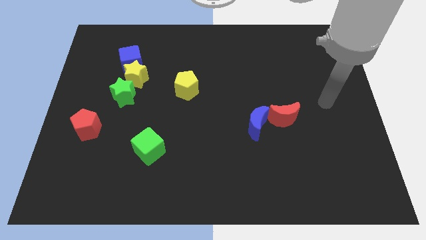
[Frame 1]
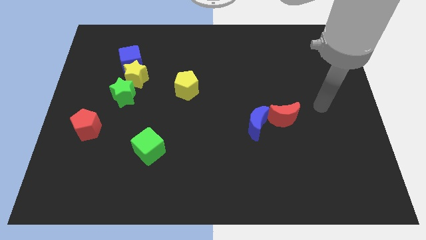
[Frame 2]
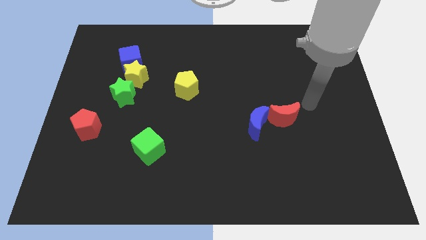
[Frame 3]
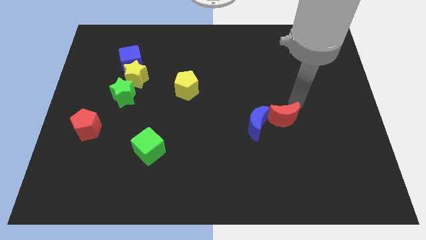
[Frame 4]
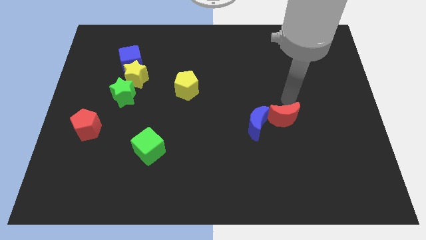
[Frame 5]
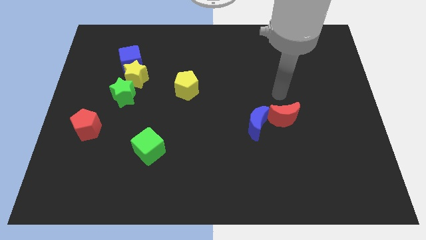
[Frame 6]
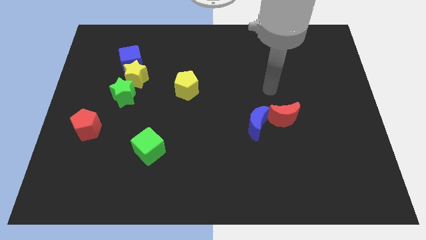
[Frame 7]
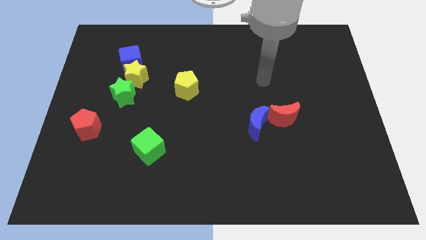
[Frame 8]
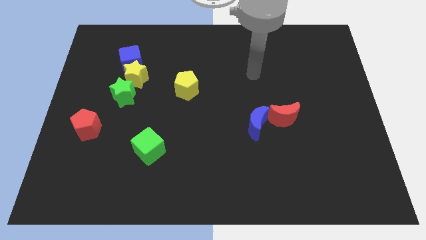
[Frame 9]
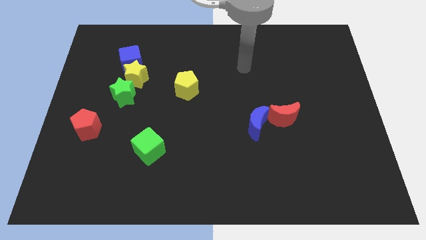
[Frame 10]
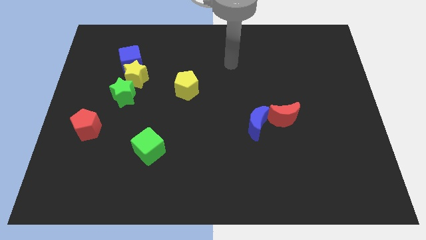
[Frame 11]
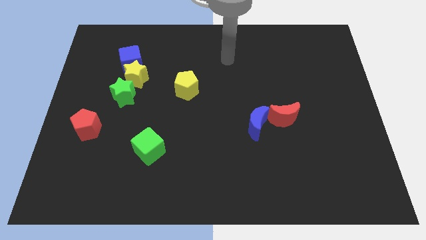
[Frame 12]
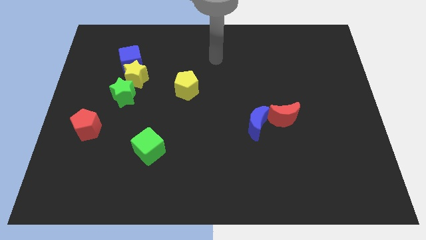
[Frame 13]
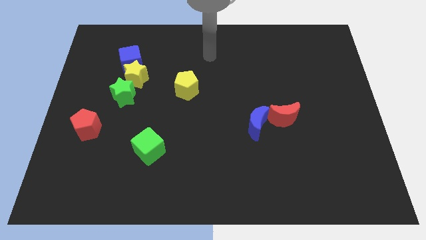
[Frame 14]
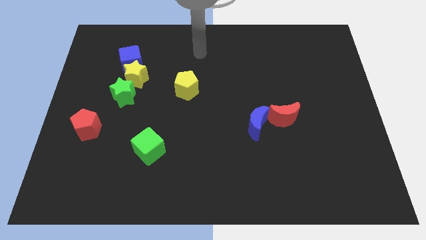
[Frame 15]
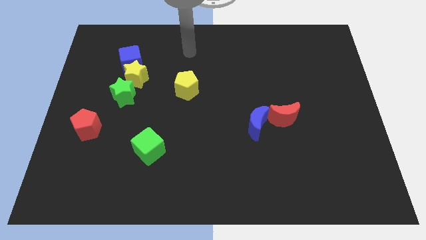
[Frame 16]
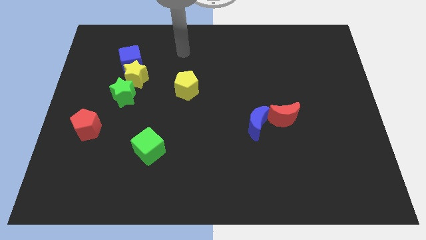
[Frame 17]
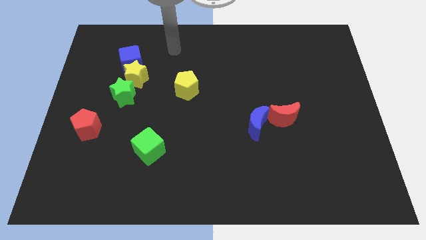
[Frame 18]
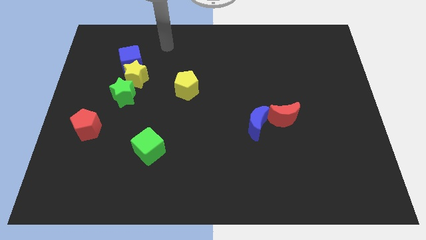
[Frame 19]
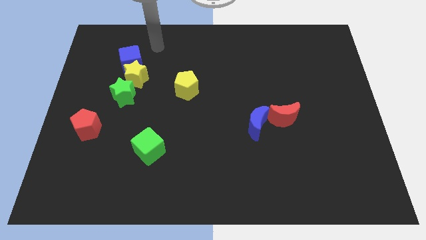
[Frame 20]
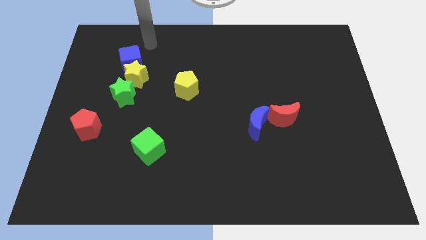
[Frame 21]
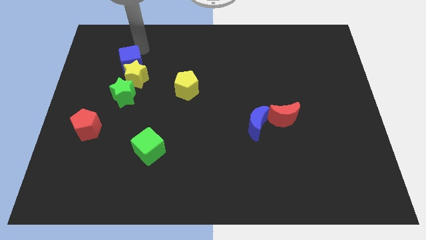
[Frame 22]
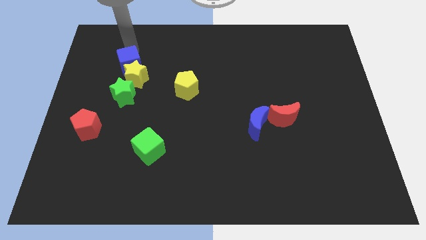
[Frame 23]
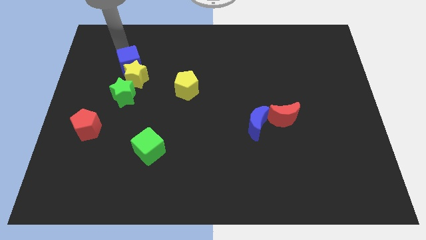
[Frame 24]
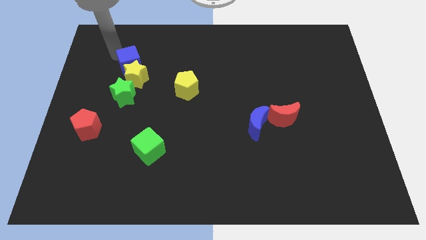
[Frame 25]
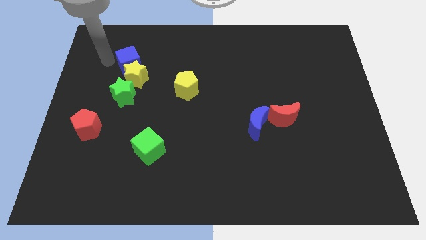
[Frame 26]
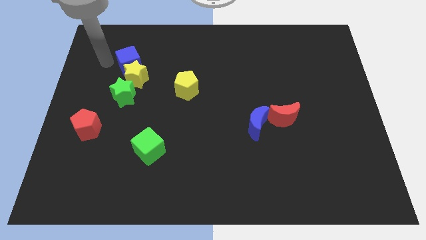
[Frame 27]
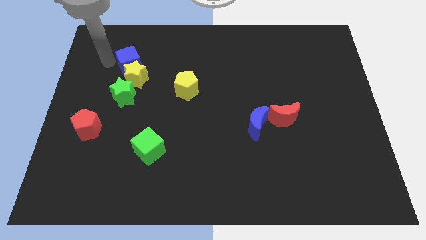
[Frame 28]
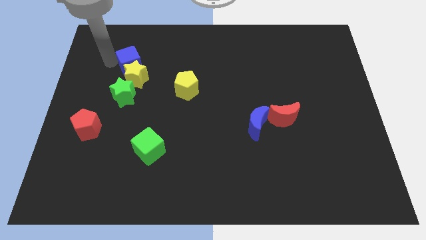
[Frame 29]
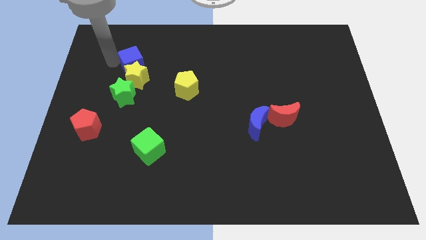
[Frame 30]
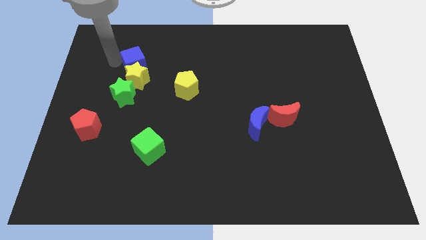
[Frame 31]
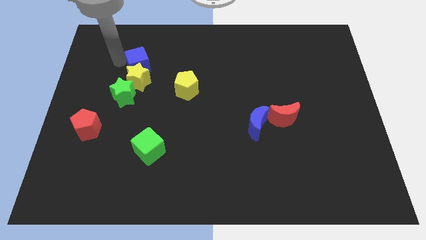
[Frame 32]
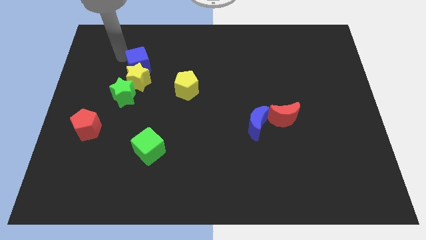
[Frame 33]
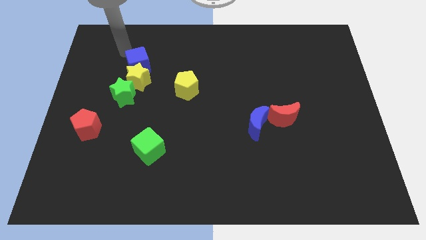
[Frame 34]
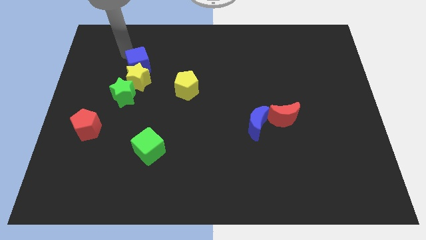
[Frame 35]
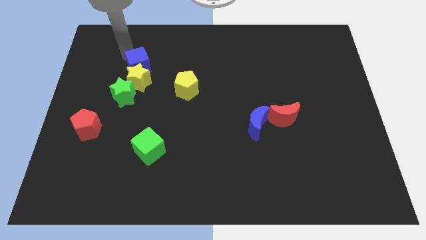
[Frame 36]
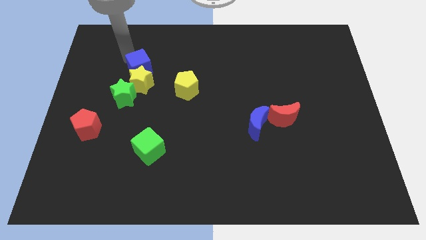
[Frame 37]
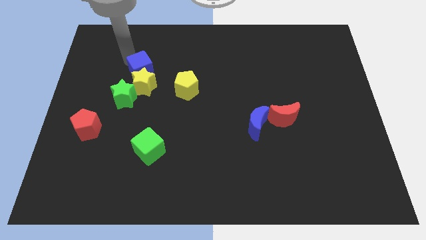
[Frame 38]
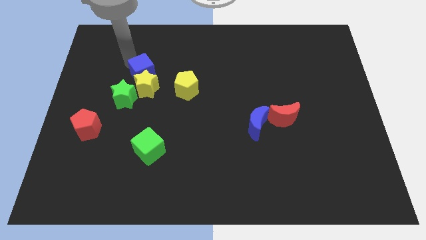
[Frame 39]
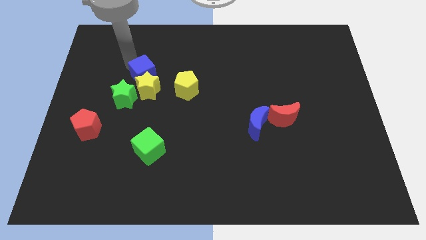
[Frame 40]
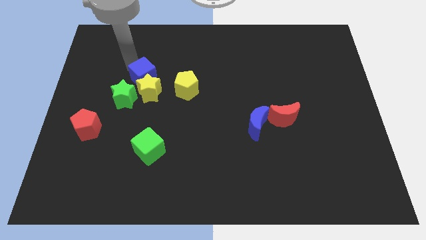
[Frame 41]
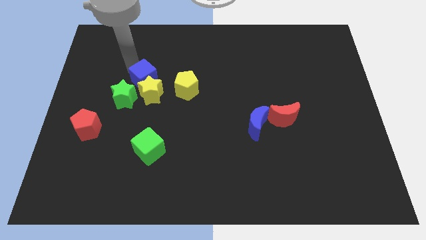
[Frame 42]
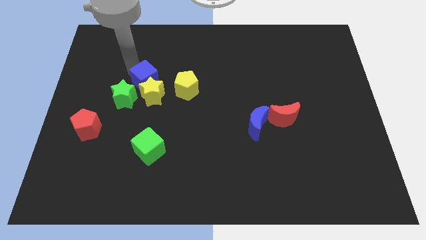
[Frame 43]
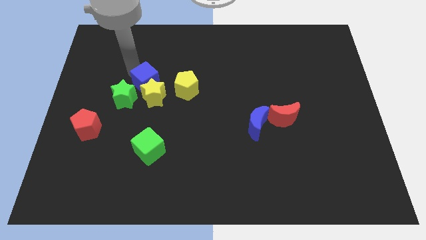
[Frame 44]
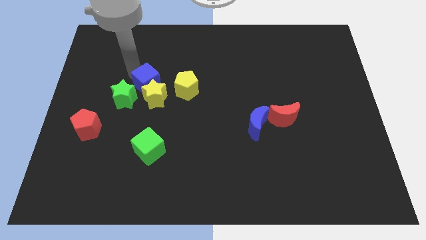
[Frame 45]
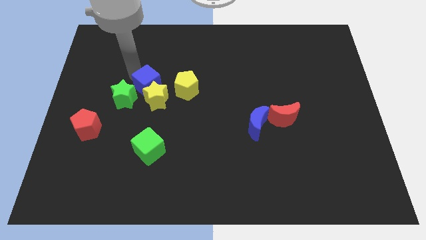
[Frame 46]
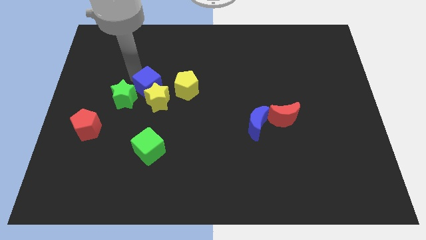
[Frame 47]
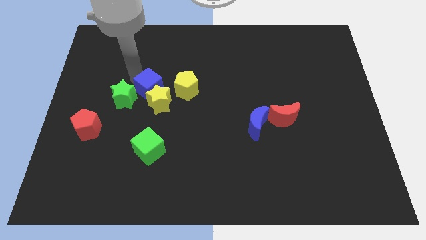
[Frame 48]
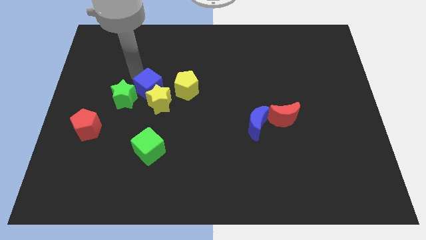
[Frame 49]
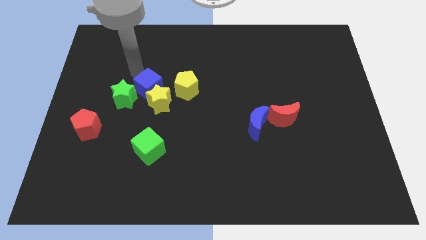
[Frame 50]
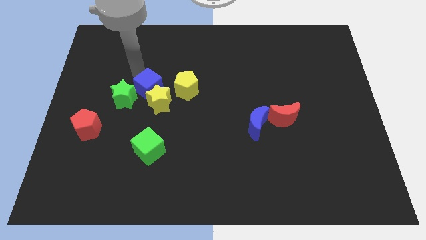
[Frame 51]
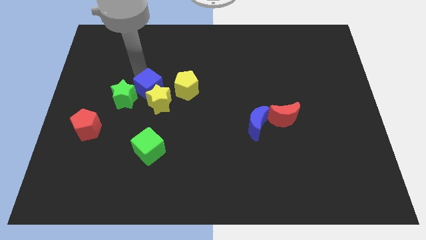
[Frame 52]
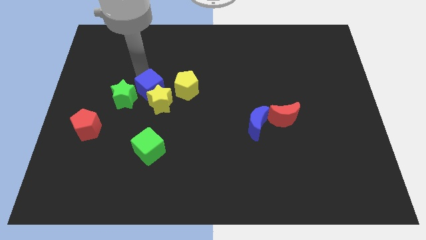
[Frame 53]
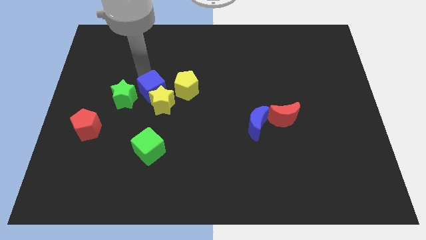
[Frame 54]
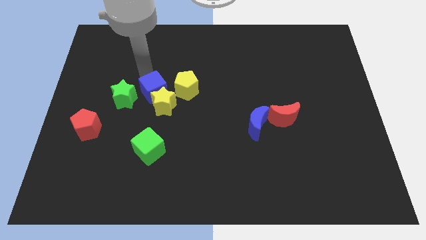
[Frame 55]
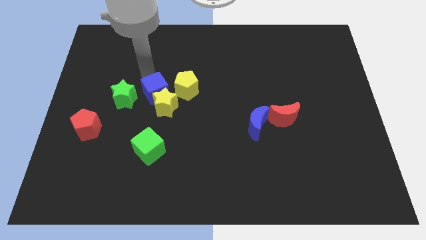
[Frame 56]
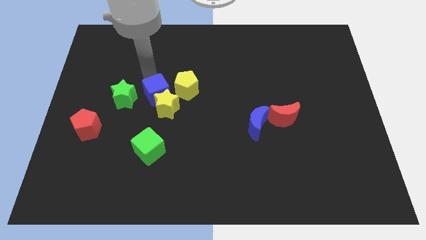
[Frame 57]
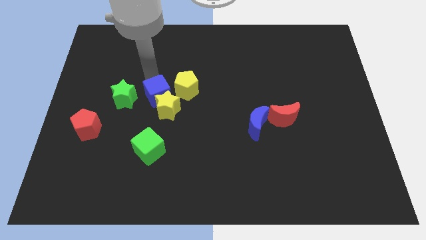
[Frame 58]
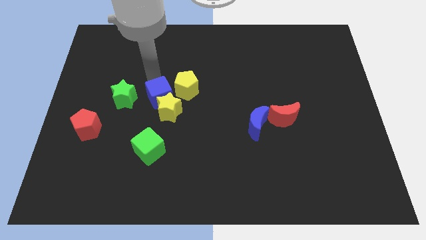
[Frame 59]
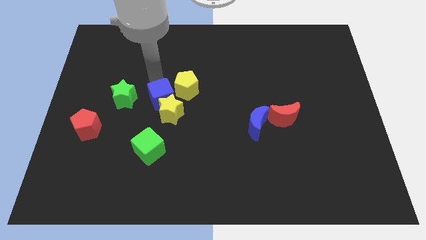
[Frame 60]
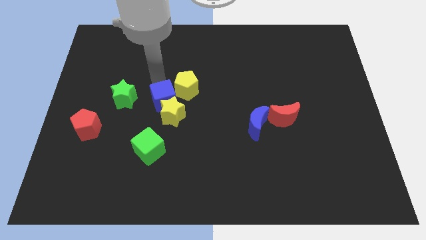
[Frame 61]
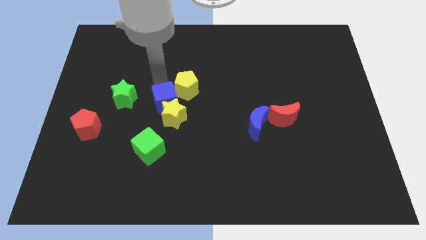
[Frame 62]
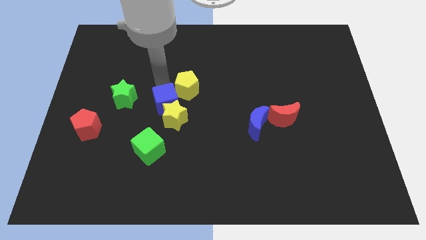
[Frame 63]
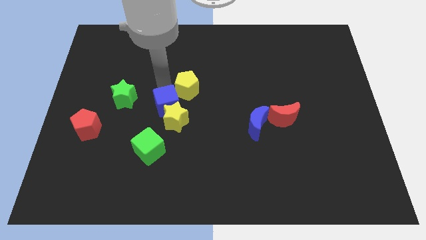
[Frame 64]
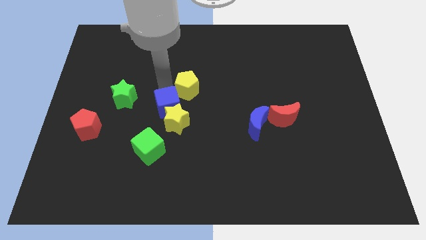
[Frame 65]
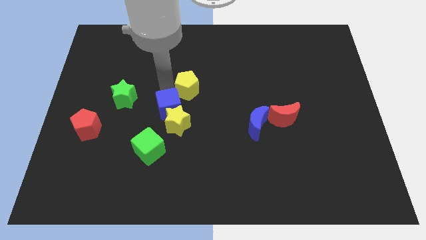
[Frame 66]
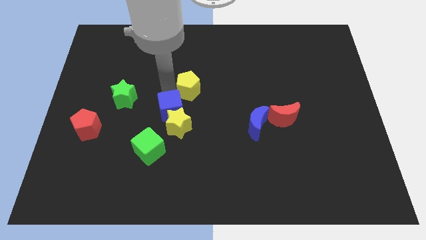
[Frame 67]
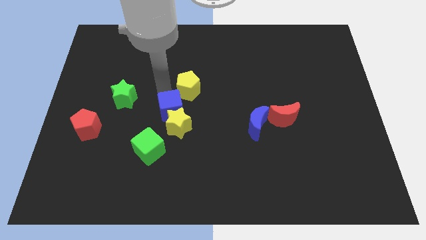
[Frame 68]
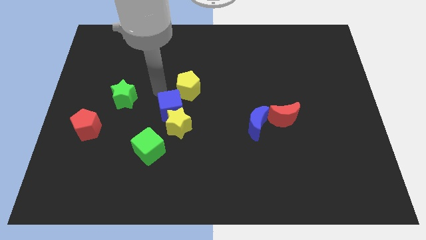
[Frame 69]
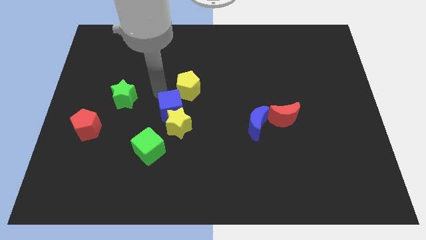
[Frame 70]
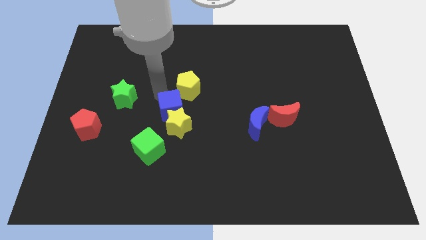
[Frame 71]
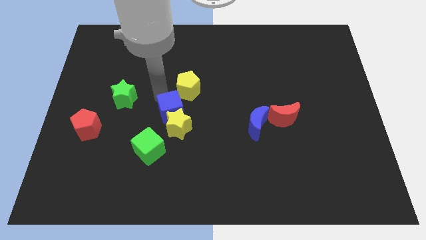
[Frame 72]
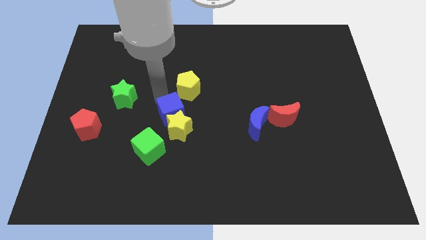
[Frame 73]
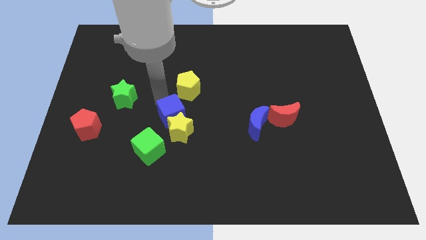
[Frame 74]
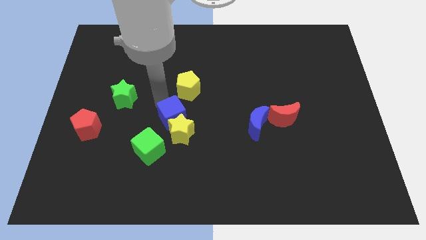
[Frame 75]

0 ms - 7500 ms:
push the blue cube down and then to the right

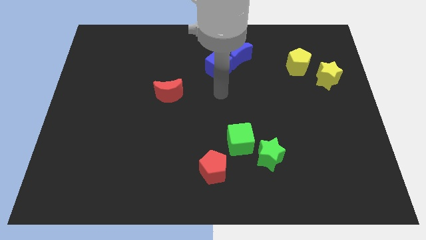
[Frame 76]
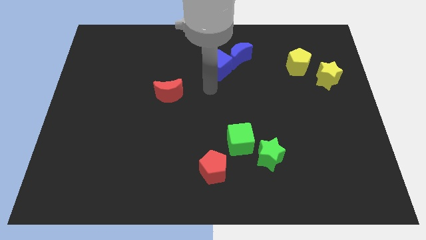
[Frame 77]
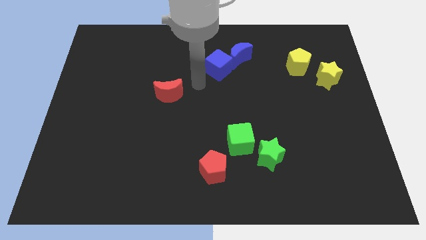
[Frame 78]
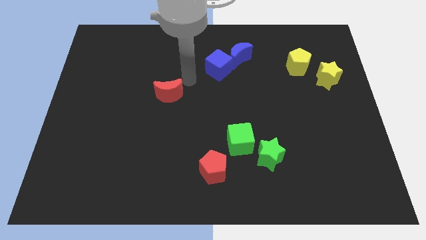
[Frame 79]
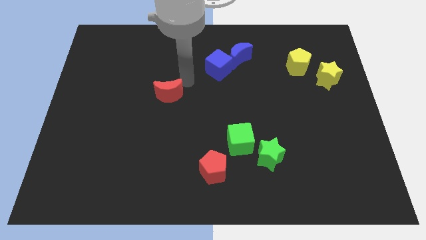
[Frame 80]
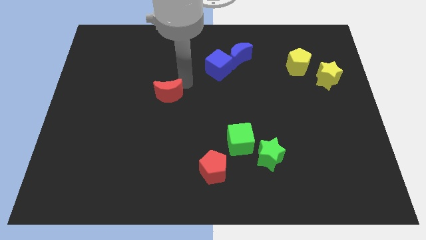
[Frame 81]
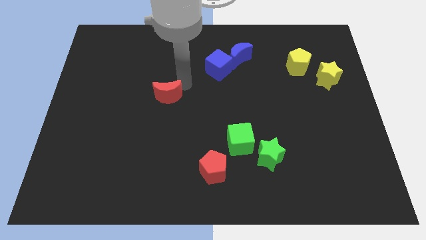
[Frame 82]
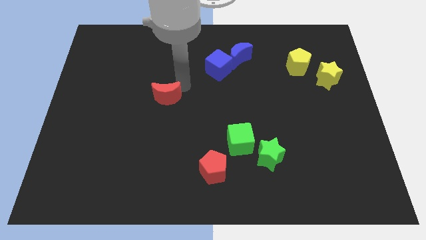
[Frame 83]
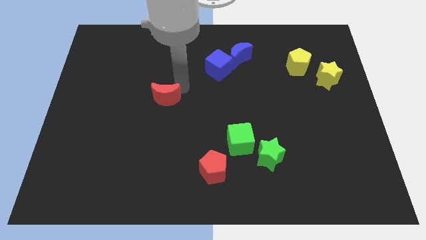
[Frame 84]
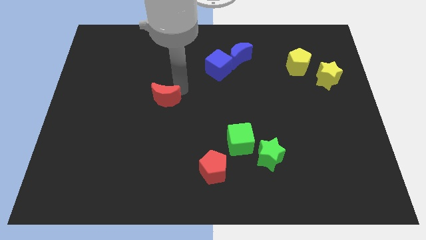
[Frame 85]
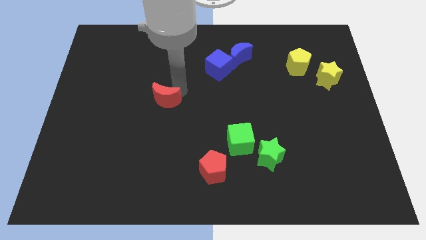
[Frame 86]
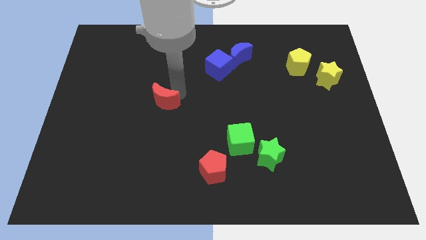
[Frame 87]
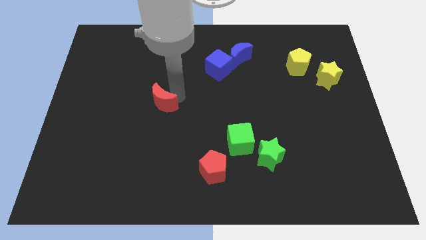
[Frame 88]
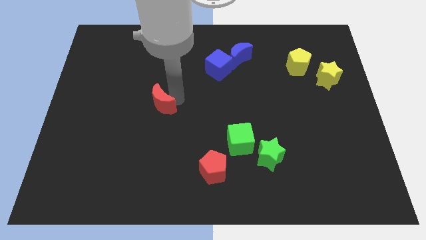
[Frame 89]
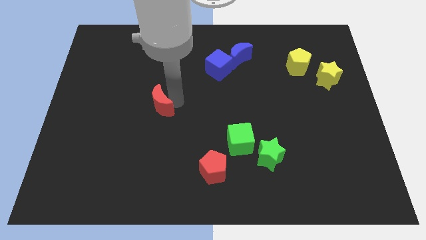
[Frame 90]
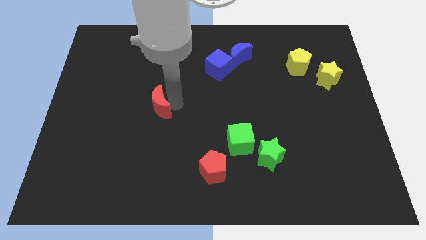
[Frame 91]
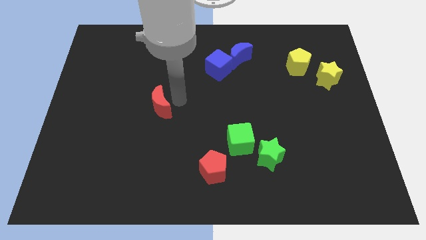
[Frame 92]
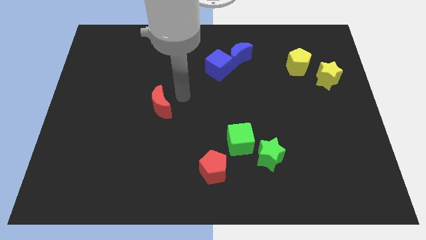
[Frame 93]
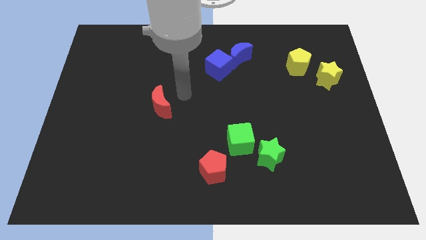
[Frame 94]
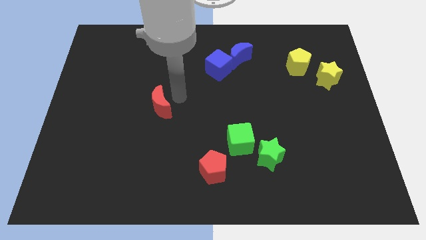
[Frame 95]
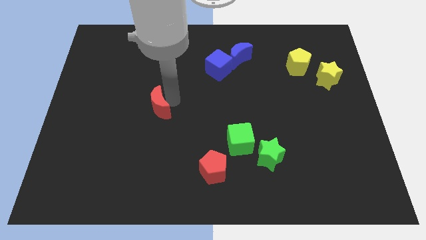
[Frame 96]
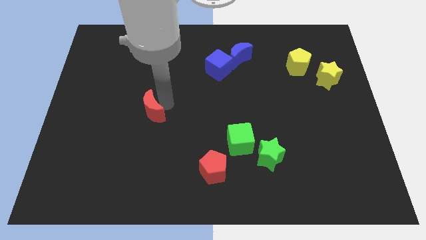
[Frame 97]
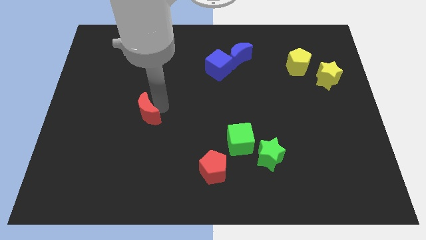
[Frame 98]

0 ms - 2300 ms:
move the red moon down and left somewhat
